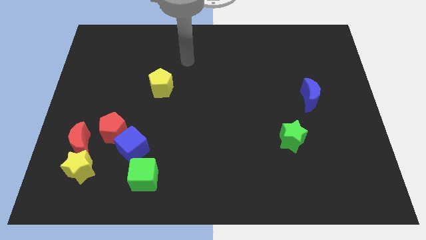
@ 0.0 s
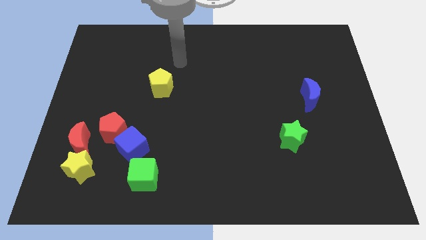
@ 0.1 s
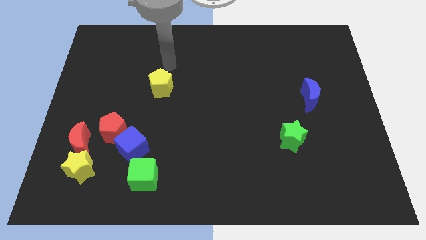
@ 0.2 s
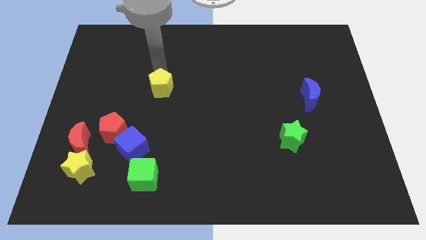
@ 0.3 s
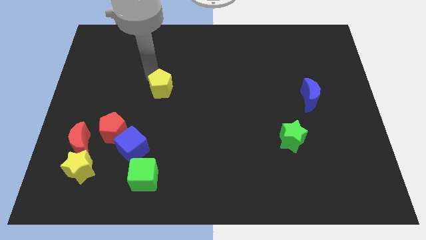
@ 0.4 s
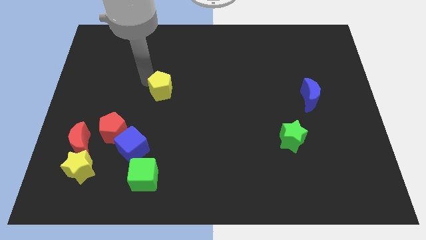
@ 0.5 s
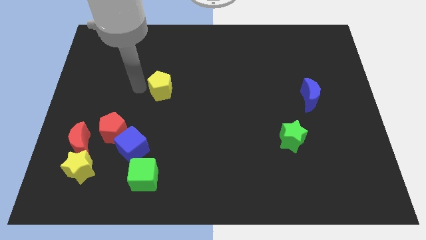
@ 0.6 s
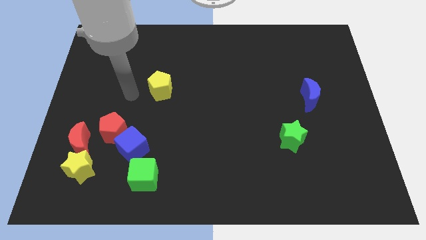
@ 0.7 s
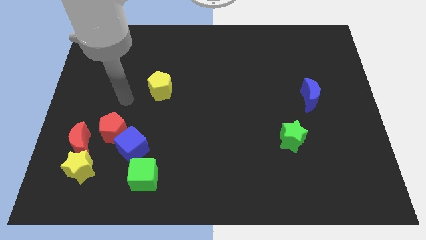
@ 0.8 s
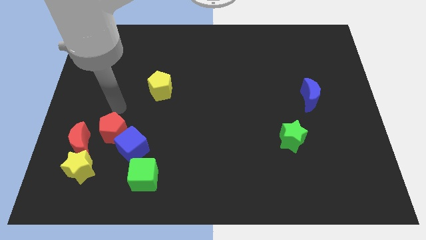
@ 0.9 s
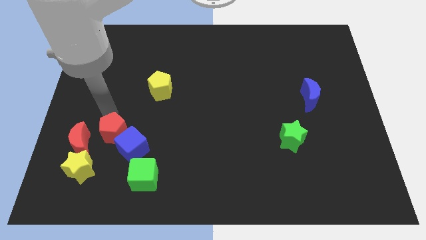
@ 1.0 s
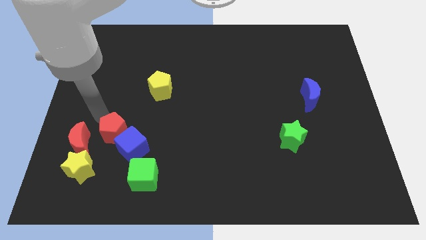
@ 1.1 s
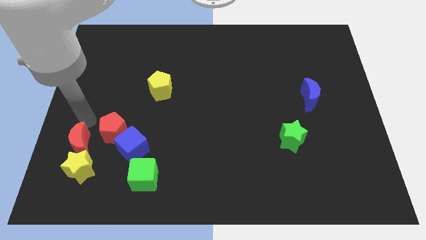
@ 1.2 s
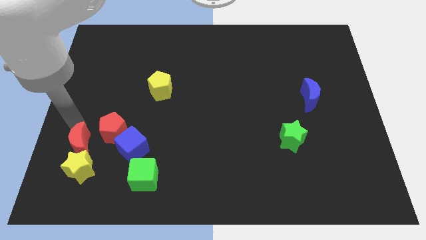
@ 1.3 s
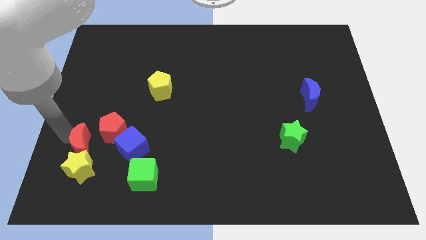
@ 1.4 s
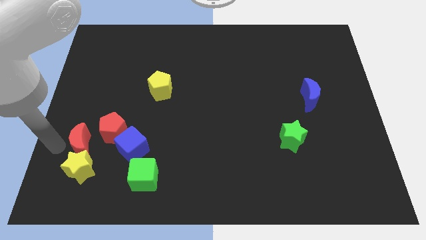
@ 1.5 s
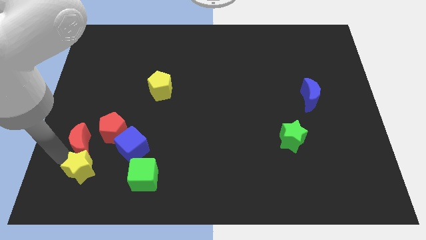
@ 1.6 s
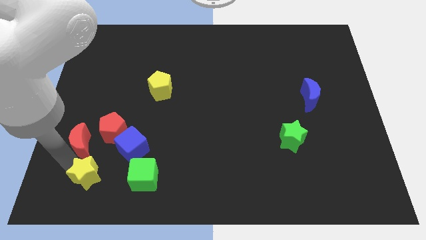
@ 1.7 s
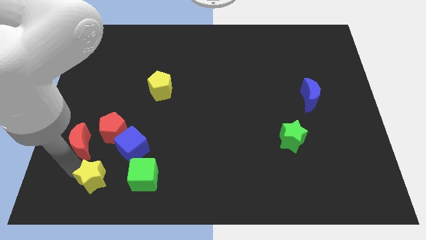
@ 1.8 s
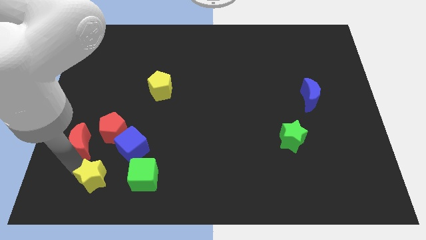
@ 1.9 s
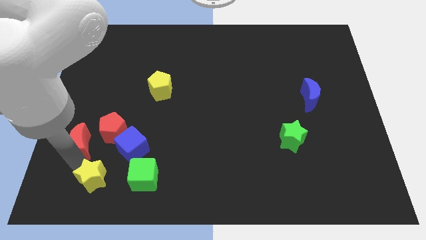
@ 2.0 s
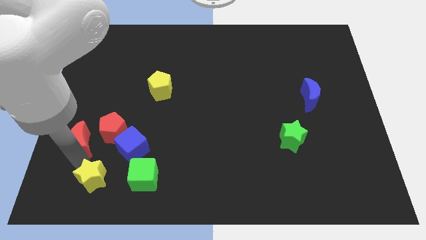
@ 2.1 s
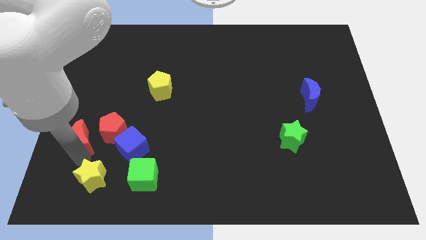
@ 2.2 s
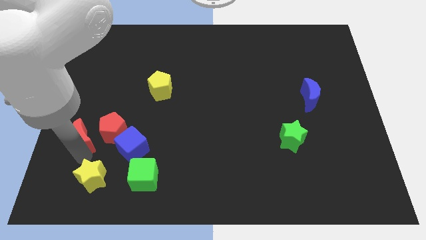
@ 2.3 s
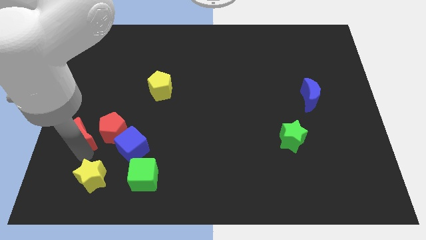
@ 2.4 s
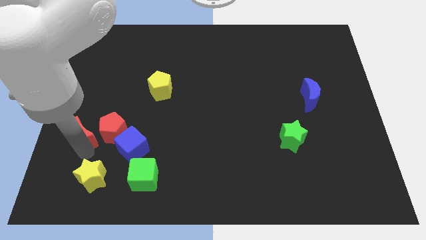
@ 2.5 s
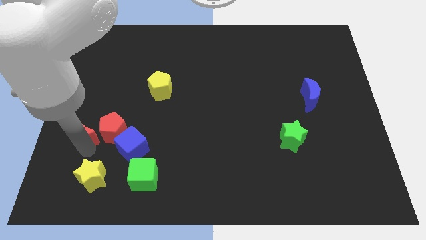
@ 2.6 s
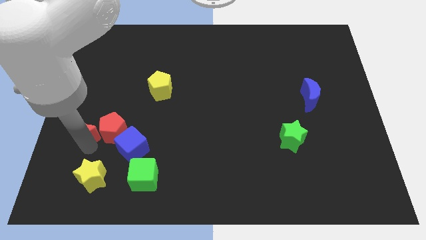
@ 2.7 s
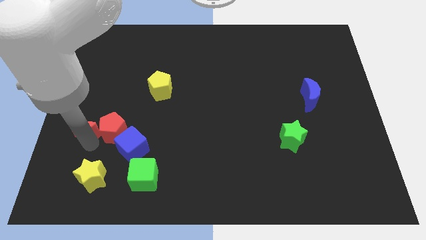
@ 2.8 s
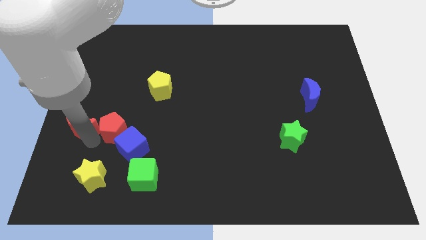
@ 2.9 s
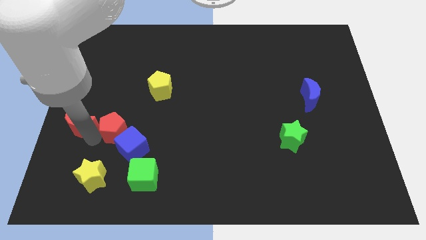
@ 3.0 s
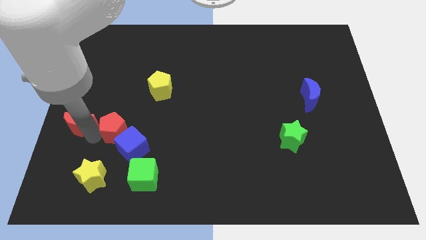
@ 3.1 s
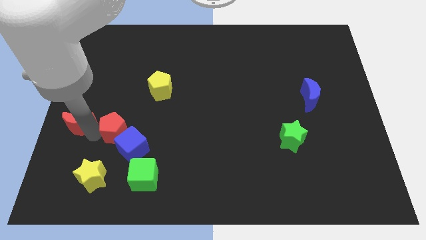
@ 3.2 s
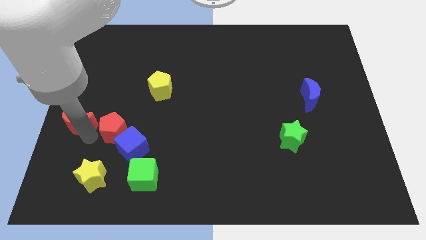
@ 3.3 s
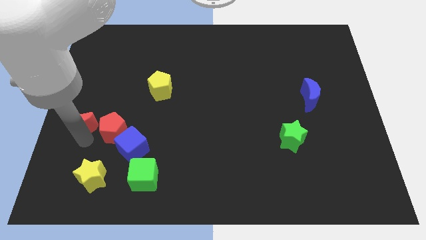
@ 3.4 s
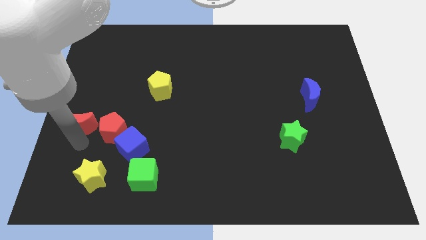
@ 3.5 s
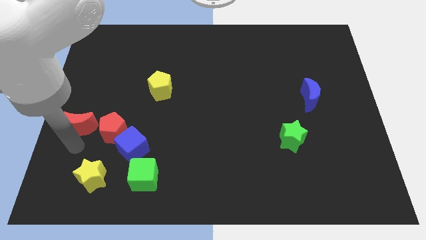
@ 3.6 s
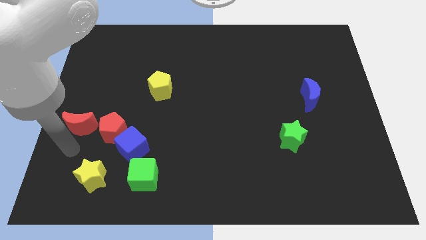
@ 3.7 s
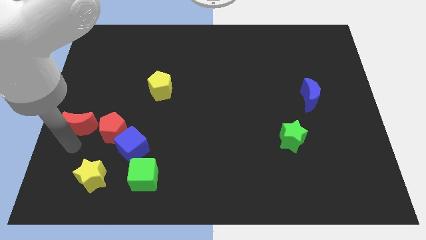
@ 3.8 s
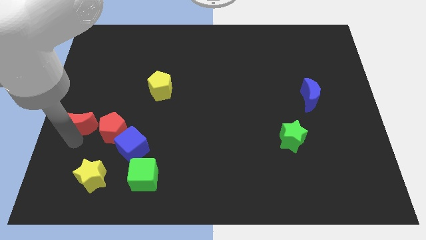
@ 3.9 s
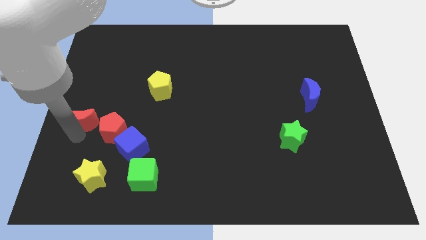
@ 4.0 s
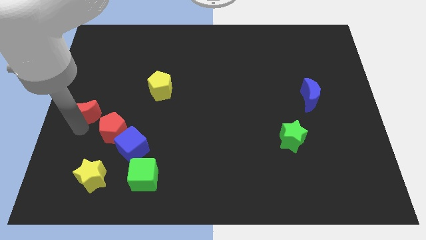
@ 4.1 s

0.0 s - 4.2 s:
slide the red moon a little bit up

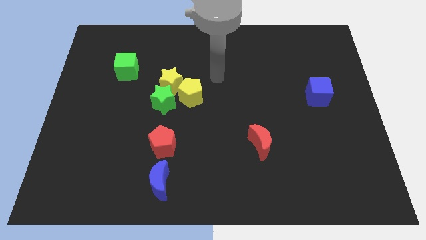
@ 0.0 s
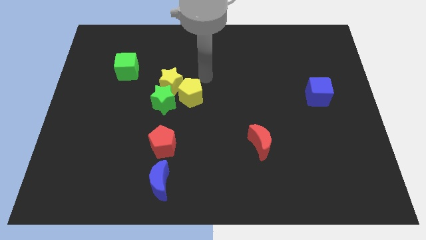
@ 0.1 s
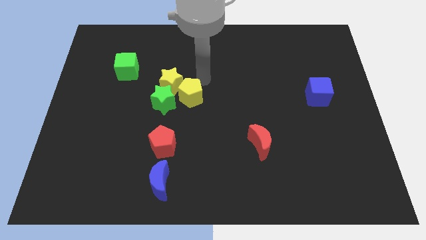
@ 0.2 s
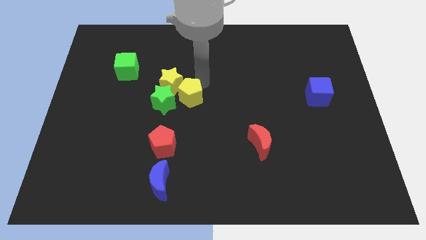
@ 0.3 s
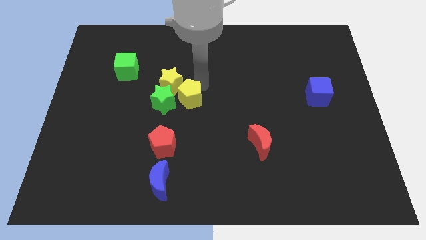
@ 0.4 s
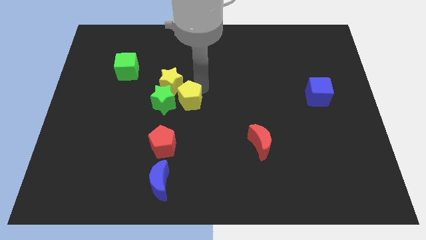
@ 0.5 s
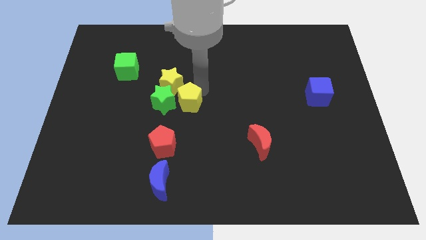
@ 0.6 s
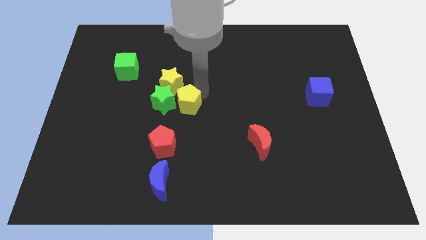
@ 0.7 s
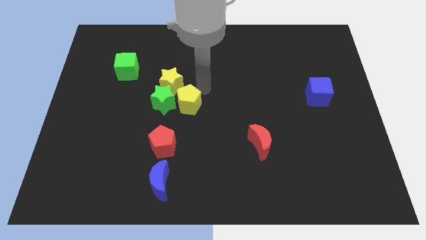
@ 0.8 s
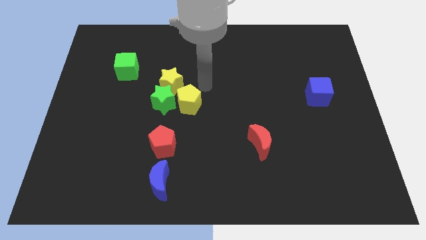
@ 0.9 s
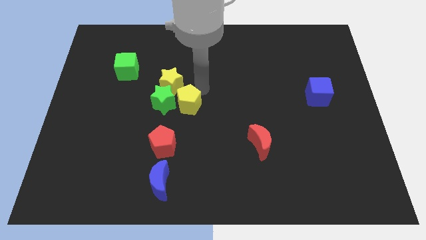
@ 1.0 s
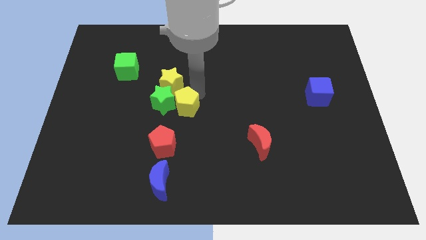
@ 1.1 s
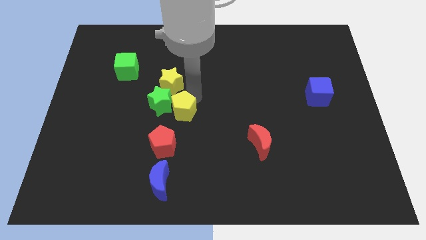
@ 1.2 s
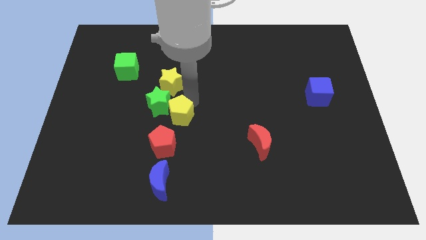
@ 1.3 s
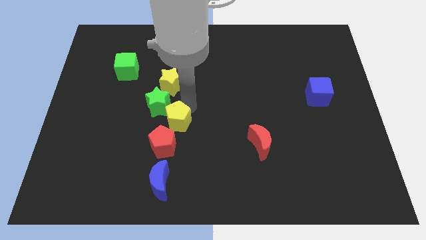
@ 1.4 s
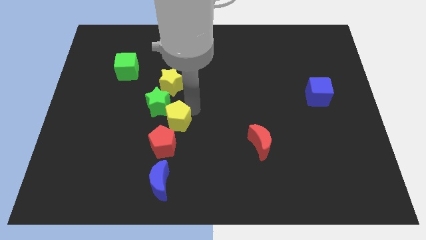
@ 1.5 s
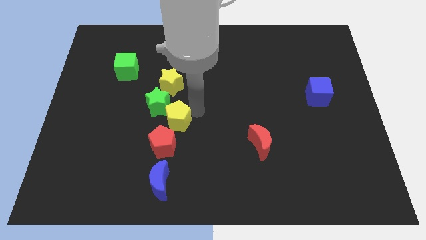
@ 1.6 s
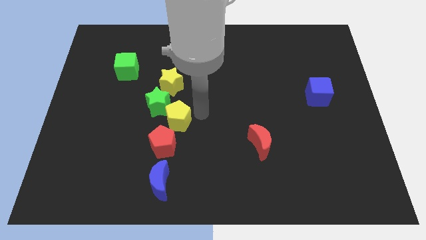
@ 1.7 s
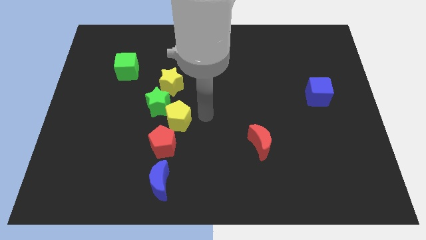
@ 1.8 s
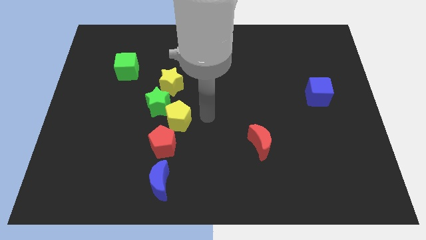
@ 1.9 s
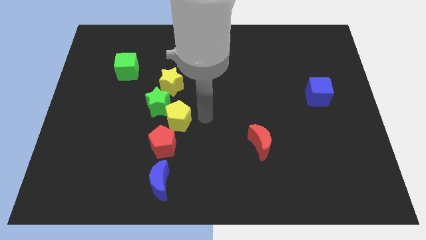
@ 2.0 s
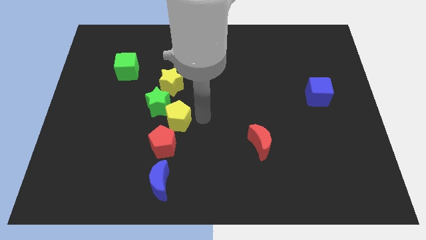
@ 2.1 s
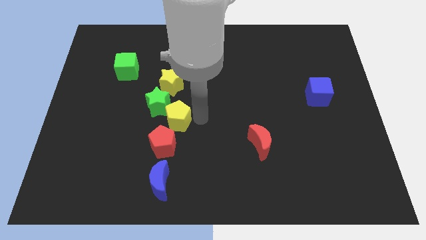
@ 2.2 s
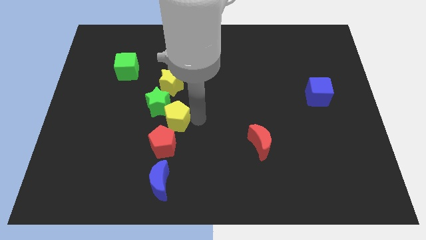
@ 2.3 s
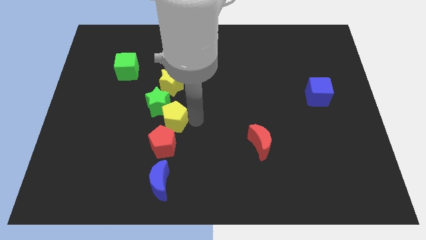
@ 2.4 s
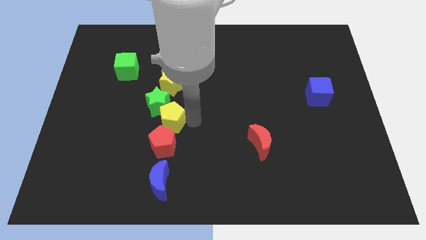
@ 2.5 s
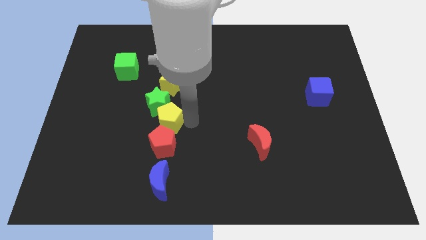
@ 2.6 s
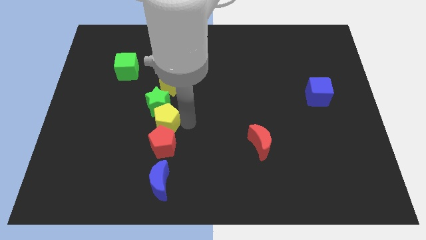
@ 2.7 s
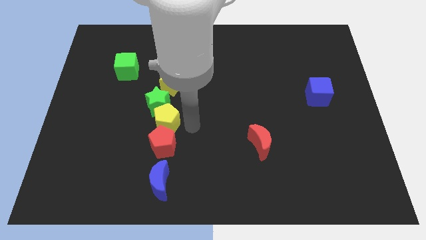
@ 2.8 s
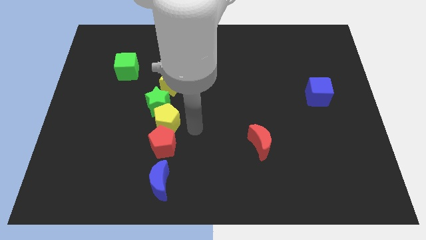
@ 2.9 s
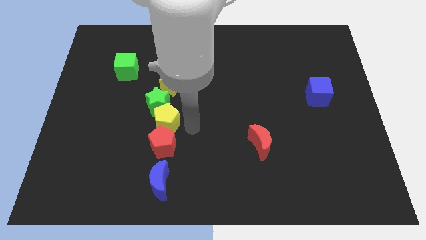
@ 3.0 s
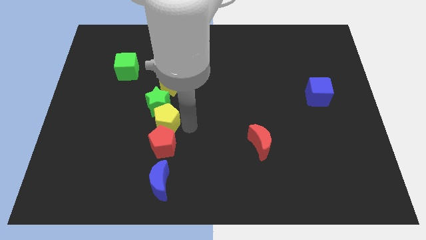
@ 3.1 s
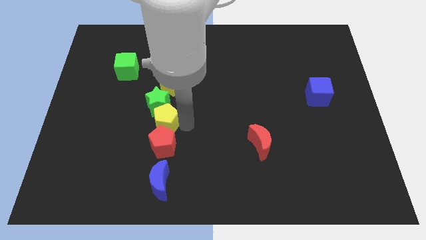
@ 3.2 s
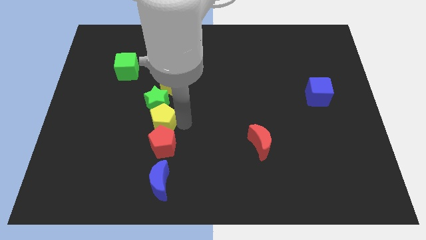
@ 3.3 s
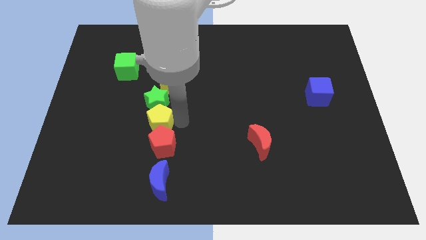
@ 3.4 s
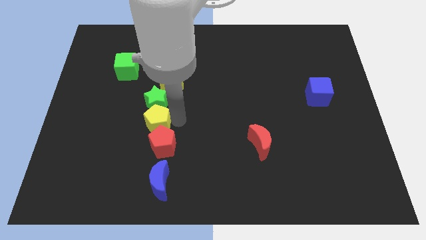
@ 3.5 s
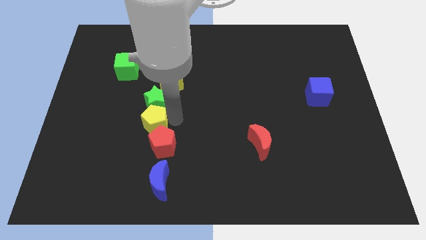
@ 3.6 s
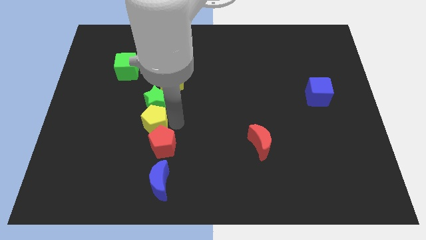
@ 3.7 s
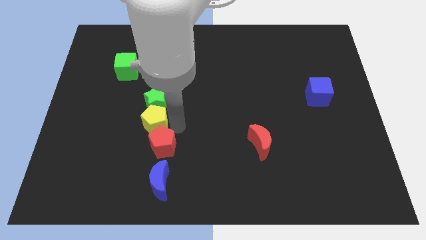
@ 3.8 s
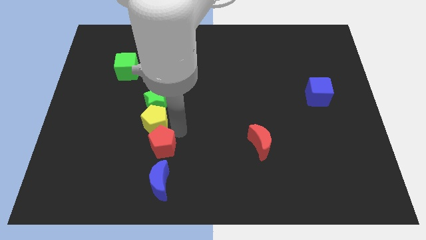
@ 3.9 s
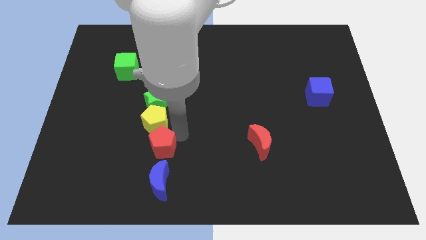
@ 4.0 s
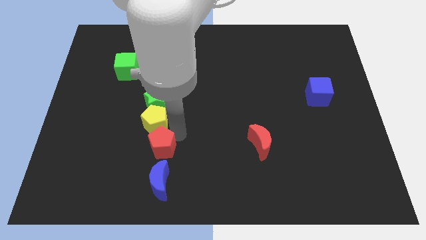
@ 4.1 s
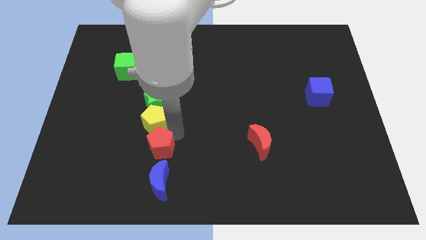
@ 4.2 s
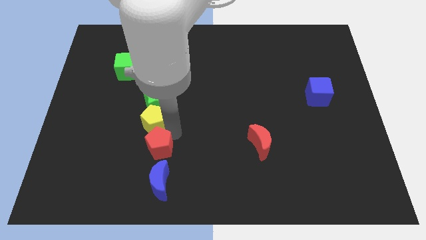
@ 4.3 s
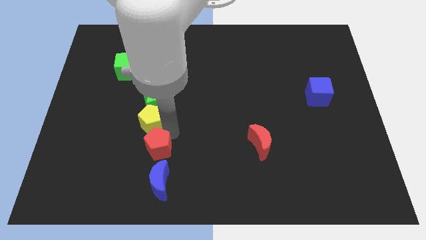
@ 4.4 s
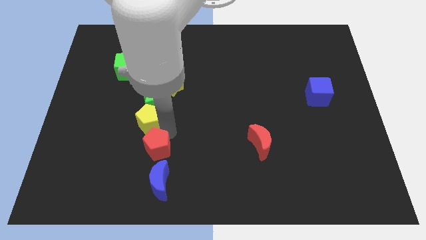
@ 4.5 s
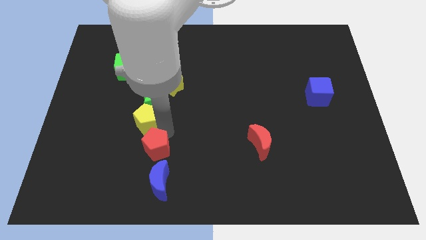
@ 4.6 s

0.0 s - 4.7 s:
push the yellow pentagon to the left somewhat

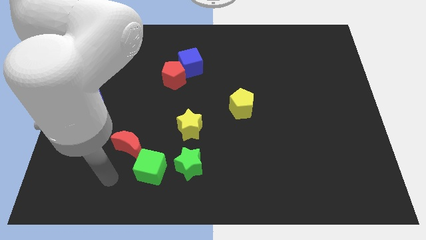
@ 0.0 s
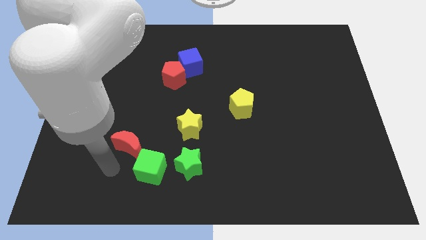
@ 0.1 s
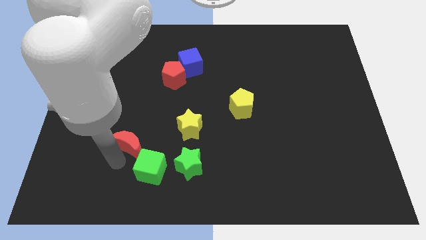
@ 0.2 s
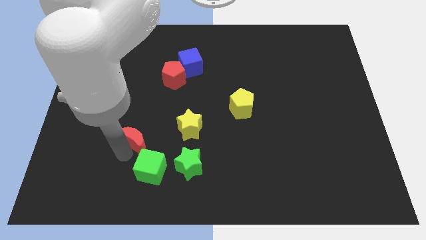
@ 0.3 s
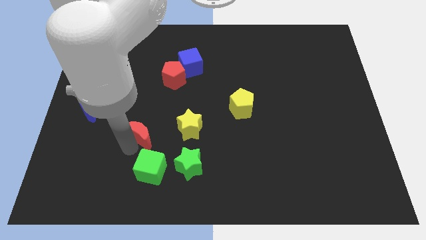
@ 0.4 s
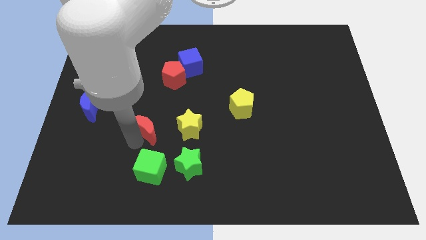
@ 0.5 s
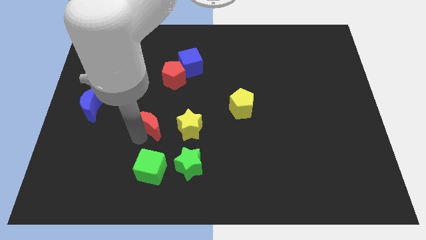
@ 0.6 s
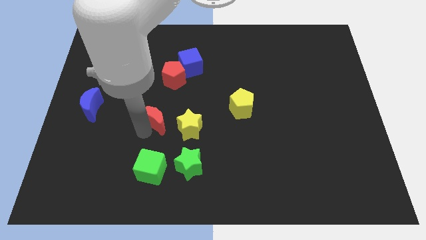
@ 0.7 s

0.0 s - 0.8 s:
move the red moon upwards and right a bit
